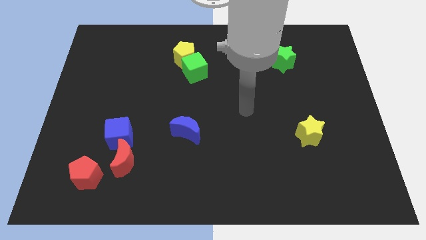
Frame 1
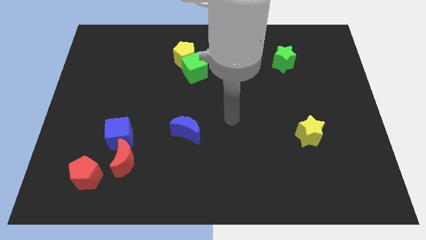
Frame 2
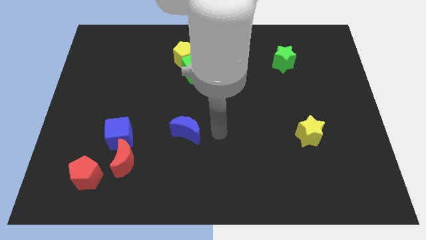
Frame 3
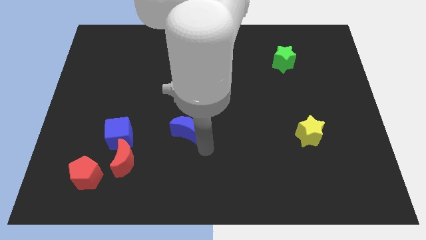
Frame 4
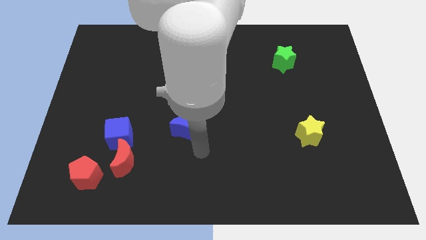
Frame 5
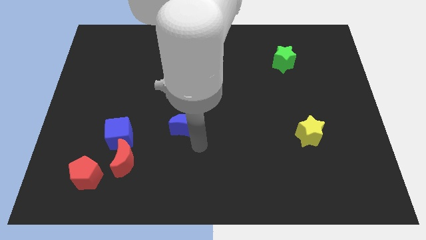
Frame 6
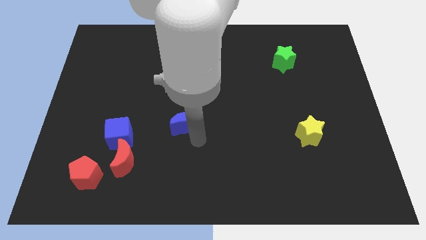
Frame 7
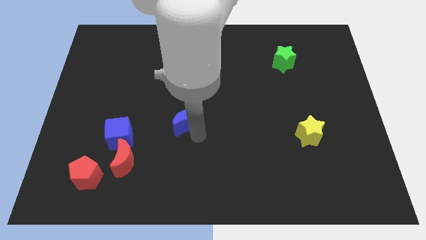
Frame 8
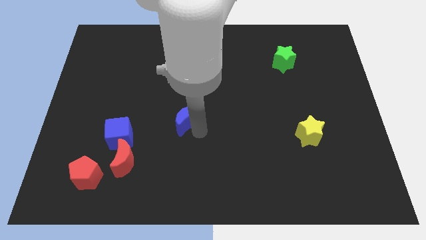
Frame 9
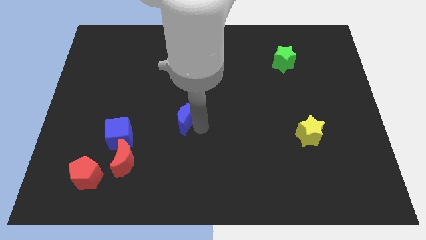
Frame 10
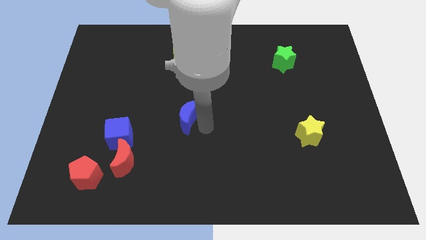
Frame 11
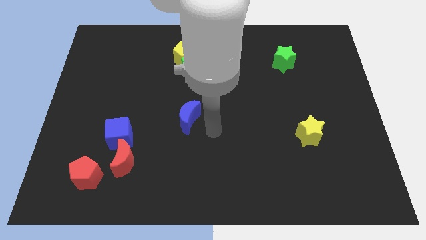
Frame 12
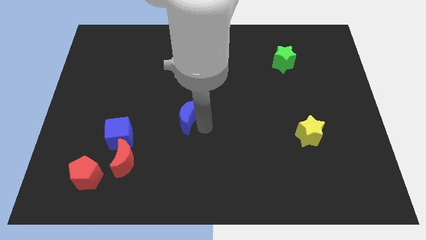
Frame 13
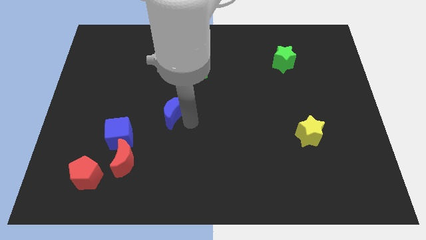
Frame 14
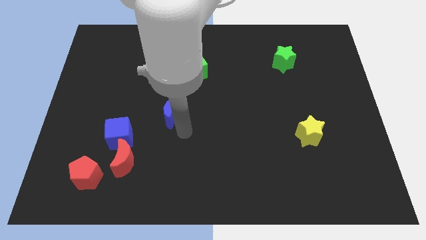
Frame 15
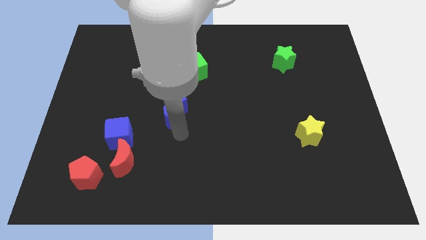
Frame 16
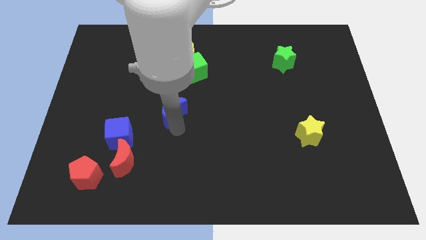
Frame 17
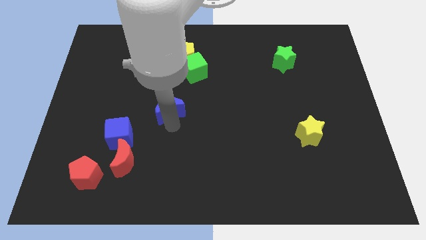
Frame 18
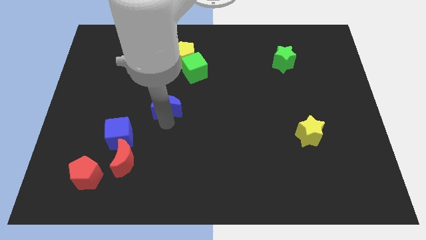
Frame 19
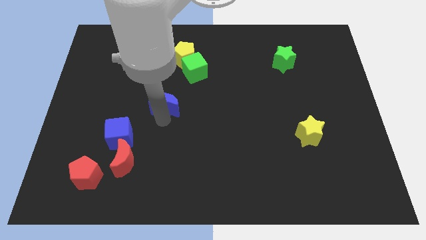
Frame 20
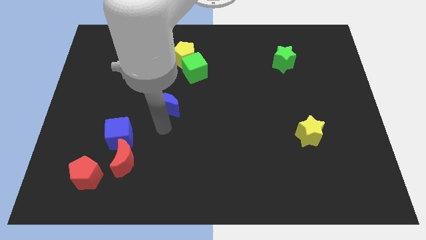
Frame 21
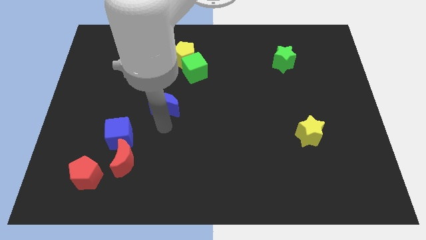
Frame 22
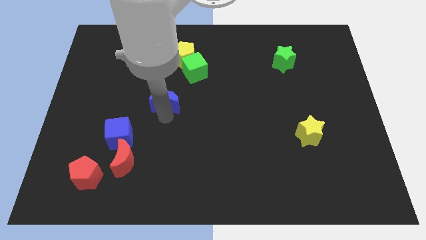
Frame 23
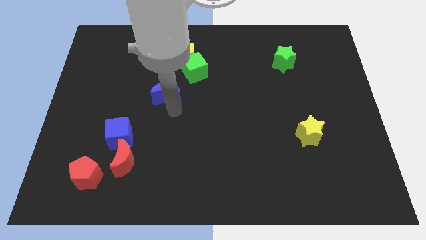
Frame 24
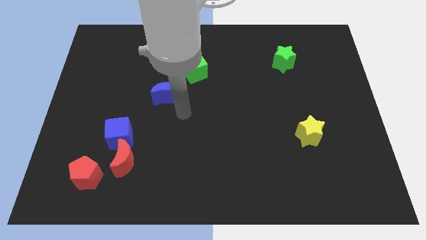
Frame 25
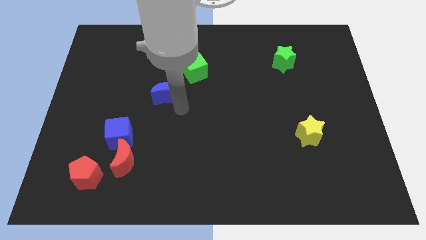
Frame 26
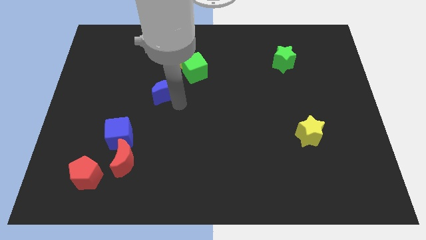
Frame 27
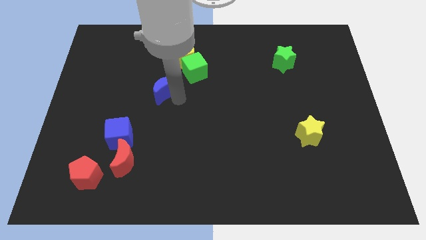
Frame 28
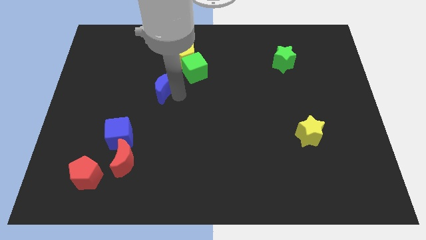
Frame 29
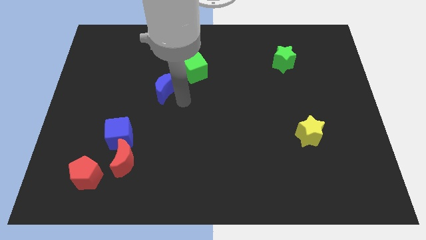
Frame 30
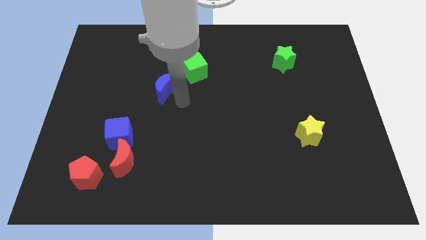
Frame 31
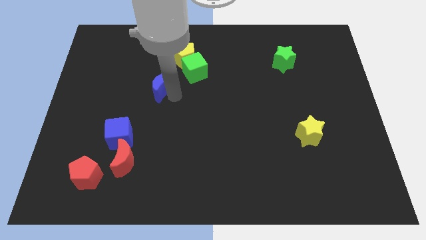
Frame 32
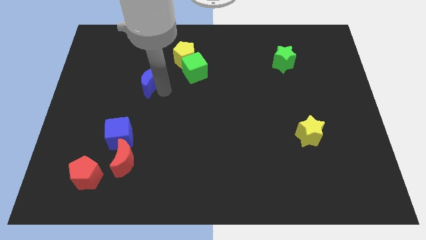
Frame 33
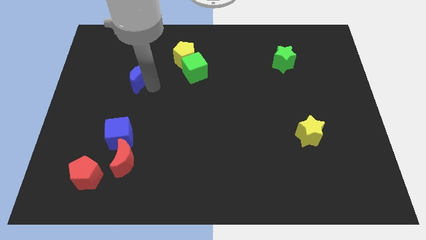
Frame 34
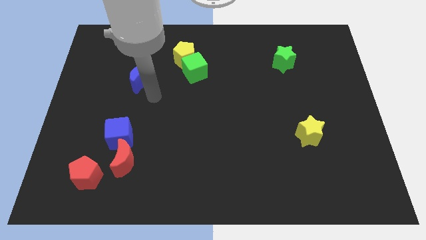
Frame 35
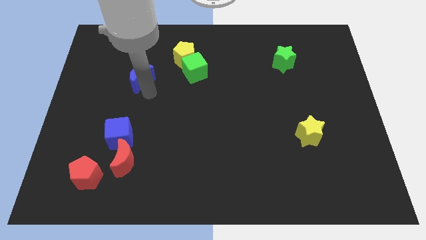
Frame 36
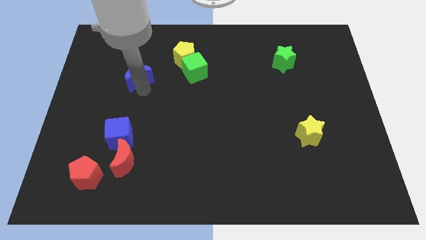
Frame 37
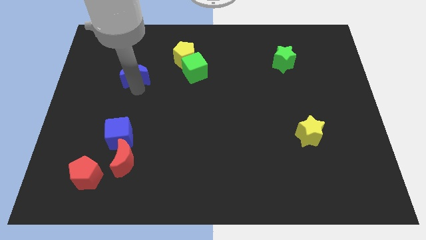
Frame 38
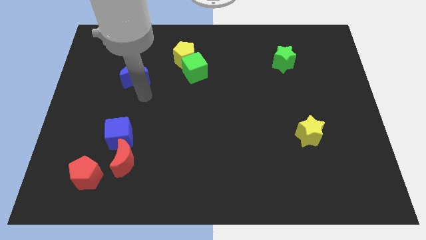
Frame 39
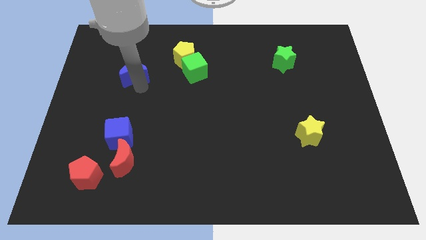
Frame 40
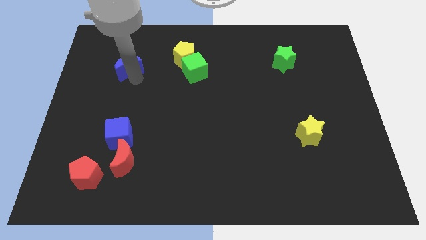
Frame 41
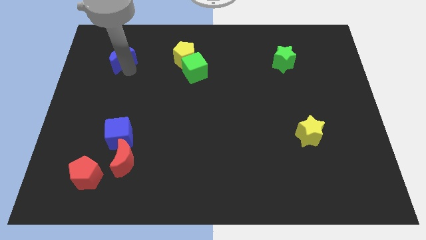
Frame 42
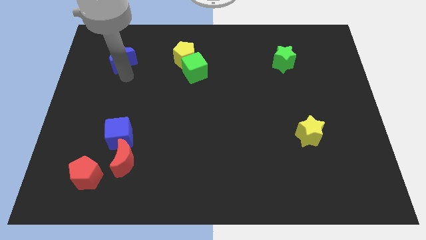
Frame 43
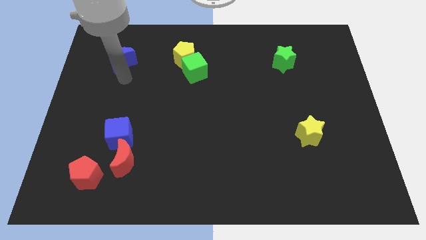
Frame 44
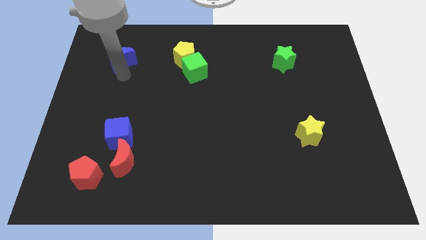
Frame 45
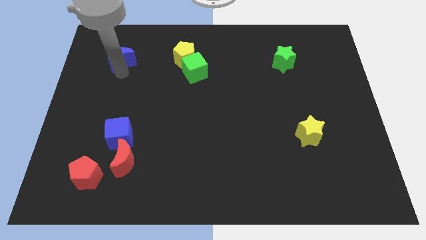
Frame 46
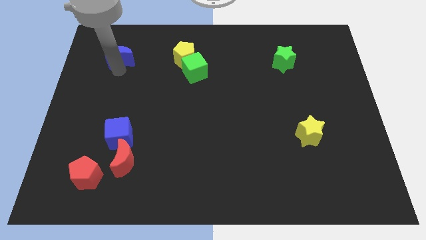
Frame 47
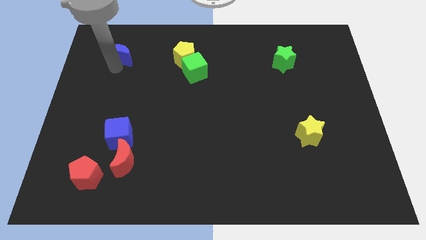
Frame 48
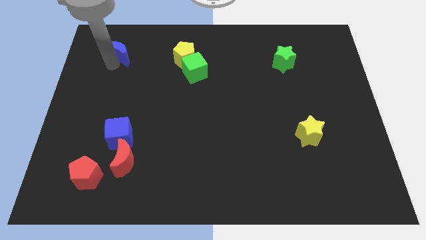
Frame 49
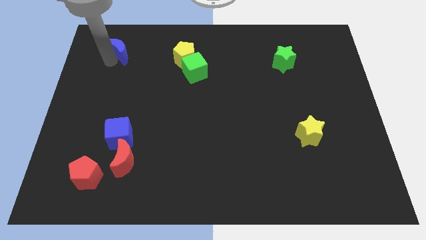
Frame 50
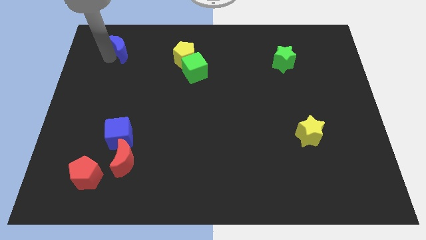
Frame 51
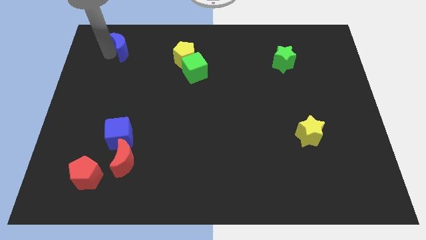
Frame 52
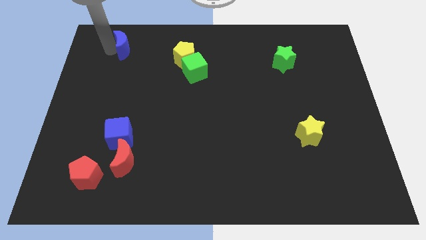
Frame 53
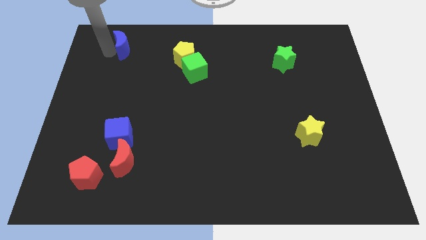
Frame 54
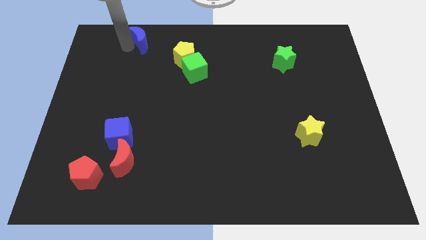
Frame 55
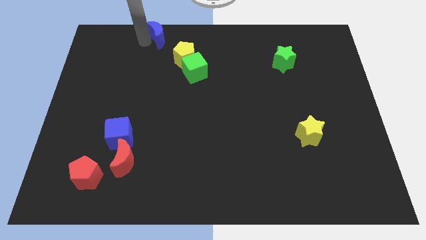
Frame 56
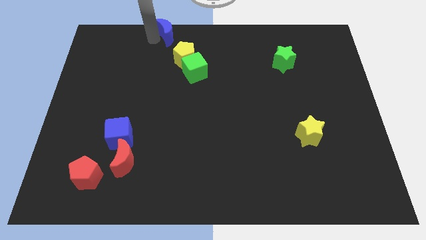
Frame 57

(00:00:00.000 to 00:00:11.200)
push the blue moon to the top

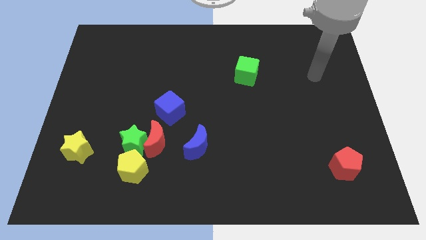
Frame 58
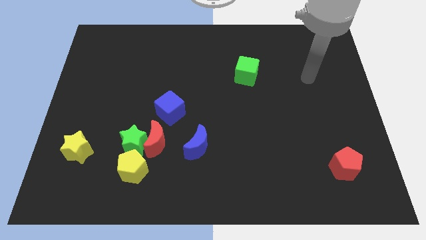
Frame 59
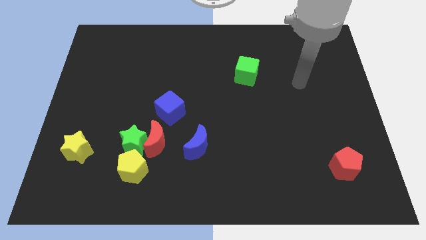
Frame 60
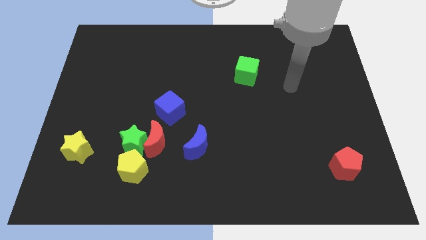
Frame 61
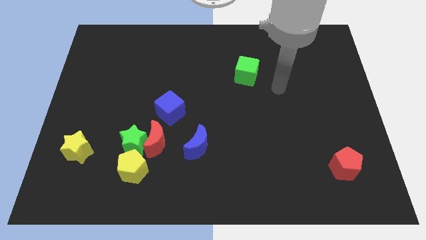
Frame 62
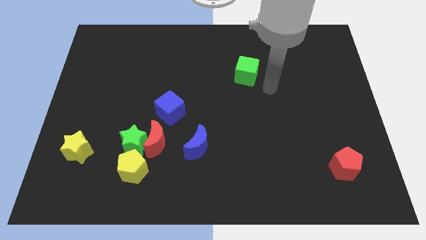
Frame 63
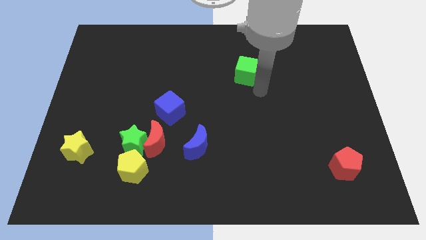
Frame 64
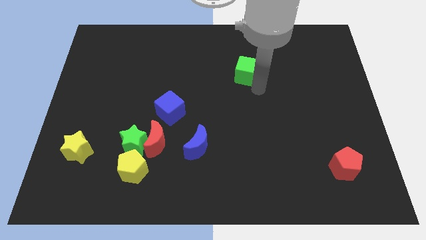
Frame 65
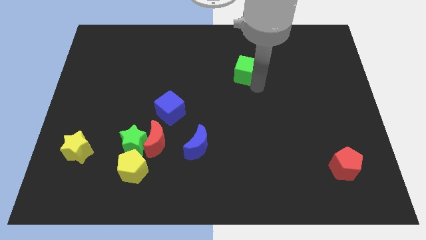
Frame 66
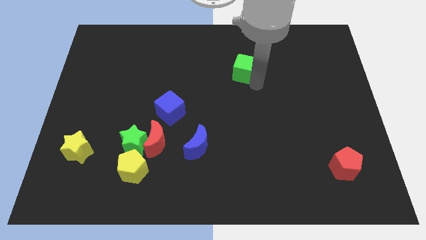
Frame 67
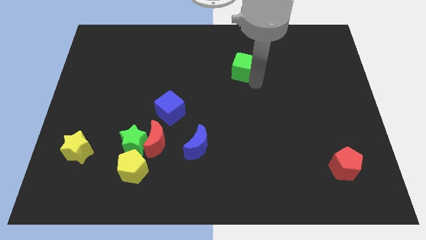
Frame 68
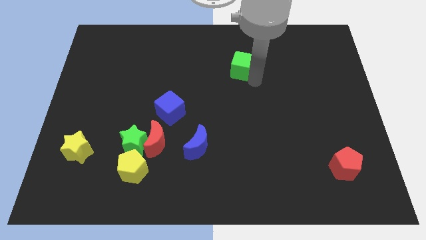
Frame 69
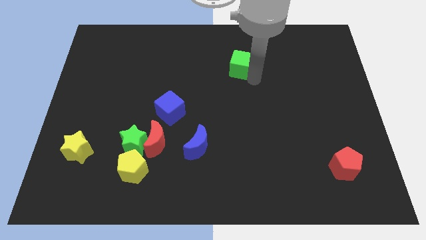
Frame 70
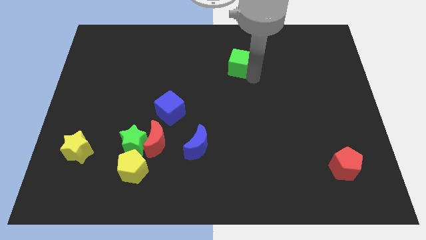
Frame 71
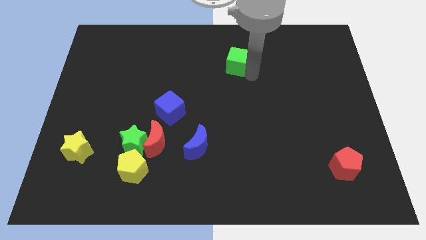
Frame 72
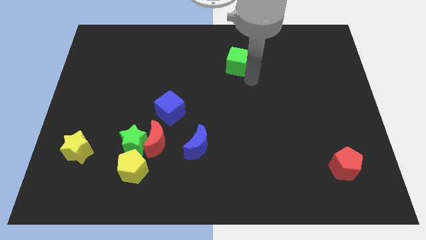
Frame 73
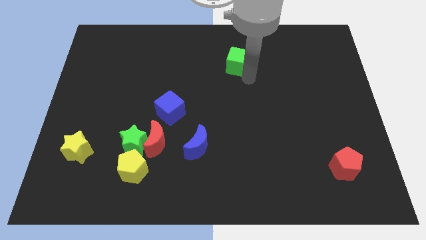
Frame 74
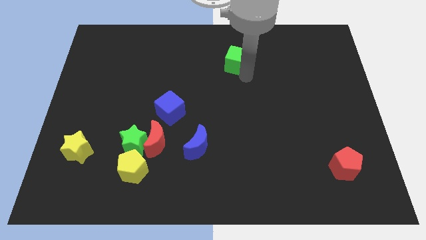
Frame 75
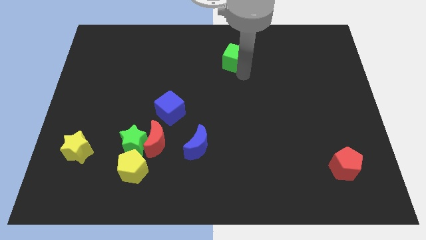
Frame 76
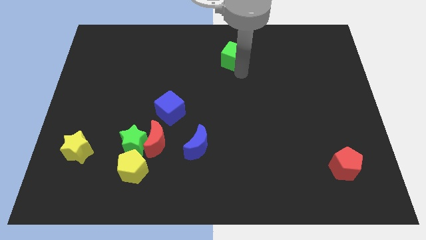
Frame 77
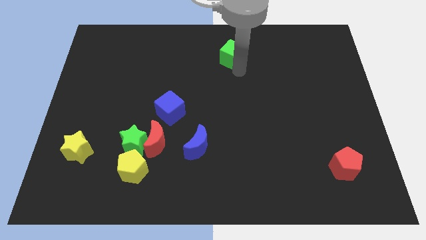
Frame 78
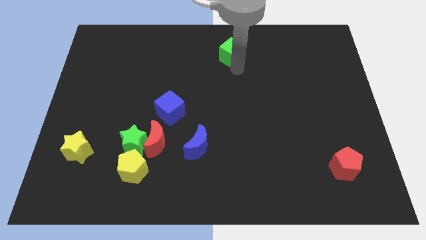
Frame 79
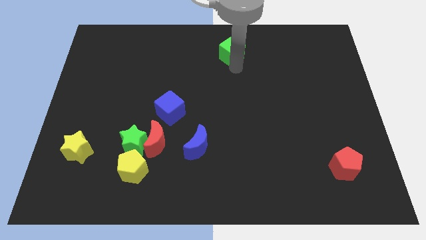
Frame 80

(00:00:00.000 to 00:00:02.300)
push the green cube to the top side
